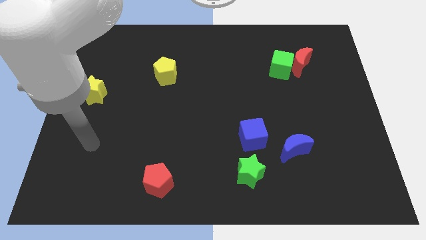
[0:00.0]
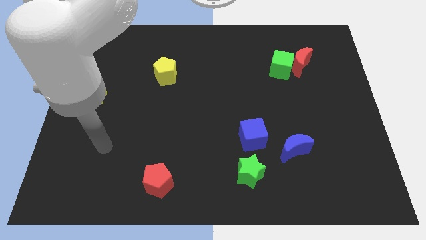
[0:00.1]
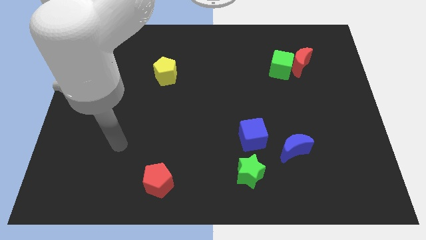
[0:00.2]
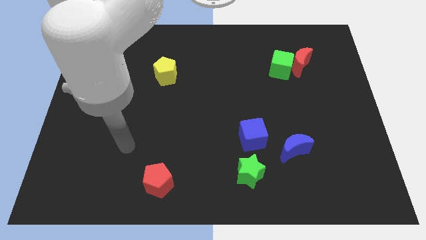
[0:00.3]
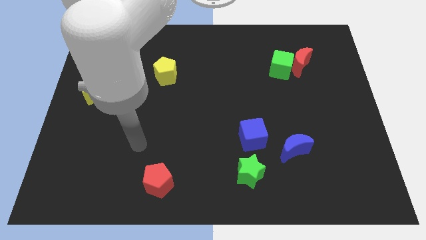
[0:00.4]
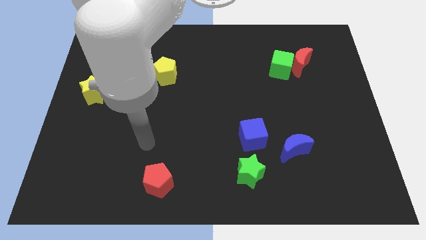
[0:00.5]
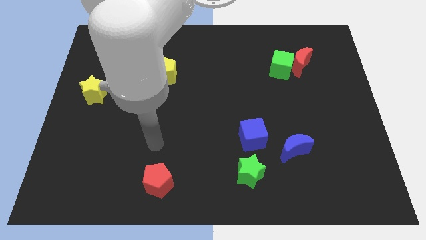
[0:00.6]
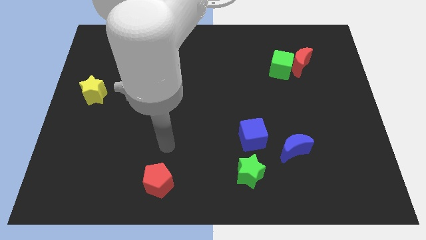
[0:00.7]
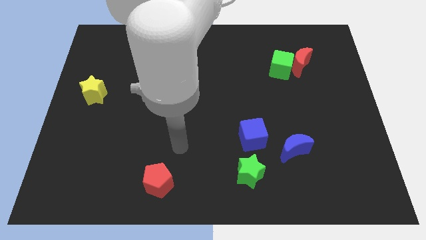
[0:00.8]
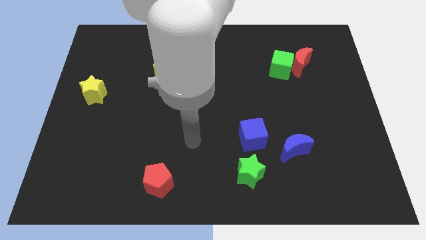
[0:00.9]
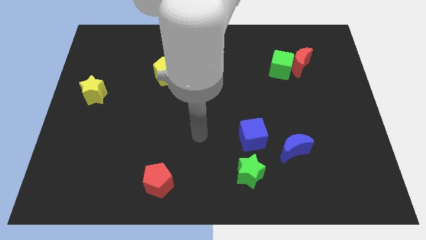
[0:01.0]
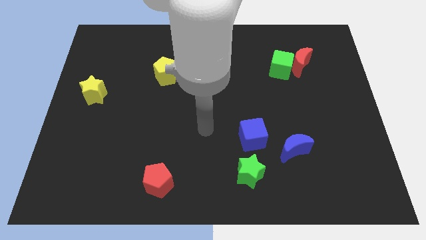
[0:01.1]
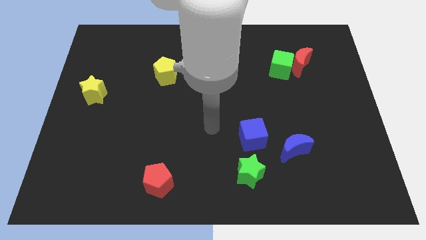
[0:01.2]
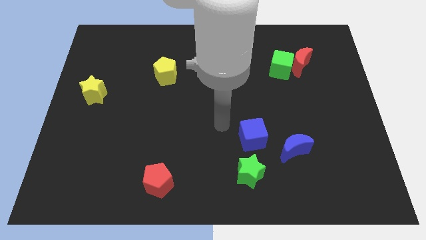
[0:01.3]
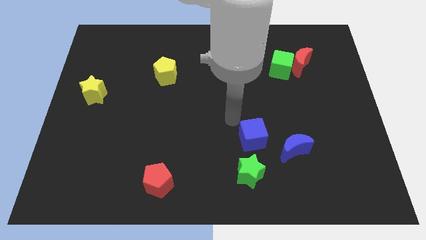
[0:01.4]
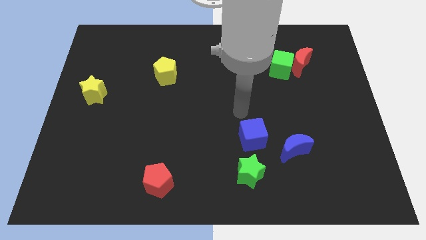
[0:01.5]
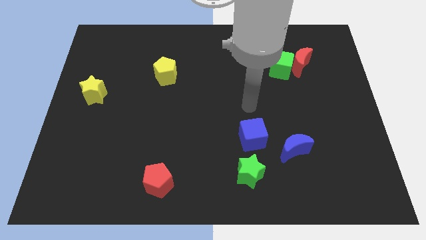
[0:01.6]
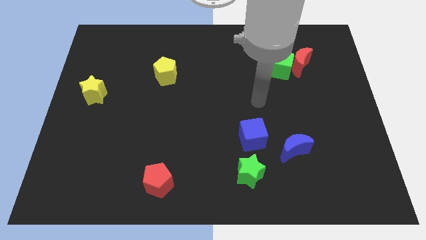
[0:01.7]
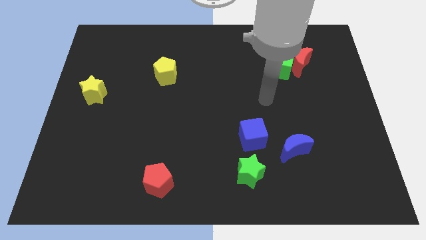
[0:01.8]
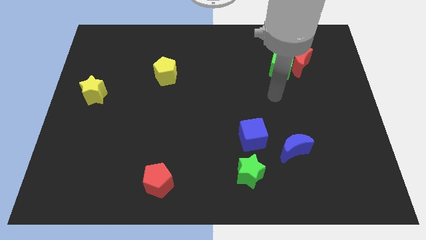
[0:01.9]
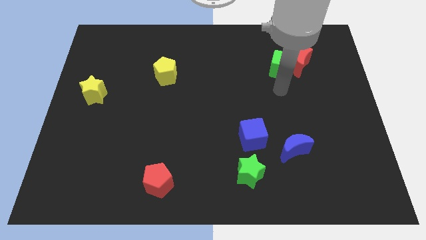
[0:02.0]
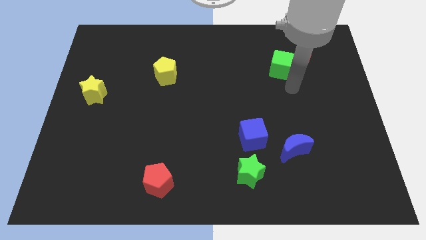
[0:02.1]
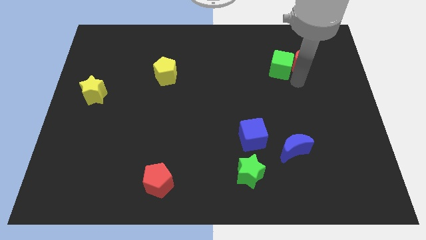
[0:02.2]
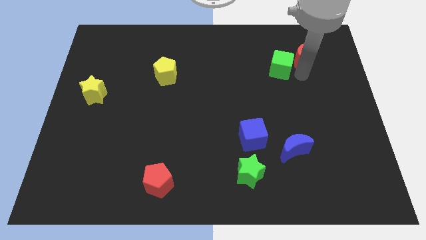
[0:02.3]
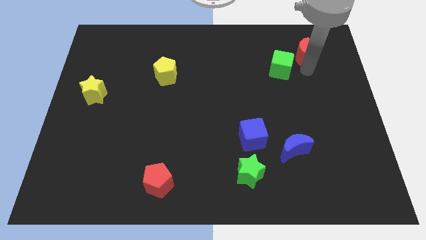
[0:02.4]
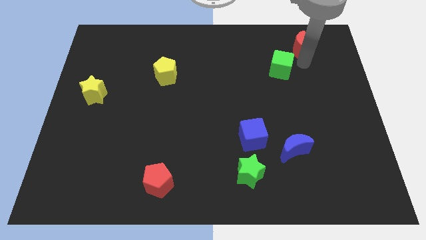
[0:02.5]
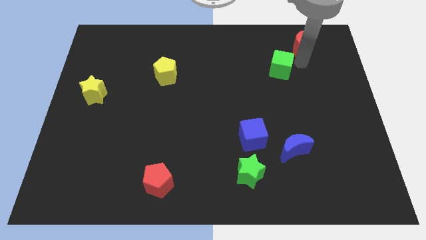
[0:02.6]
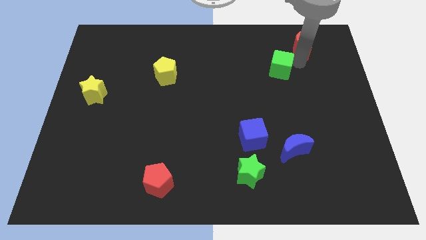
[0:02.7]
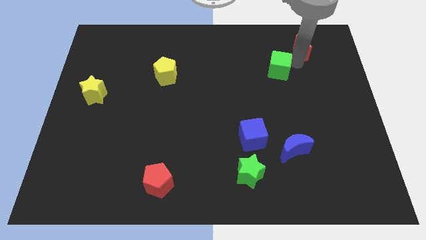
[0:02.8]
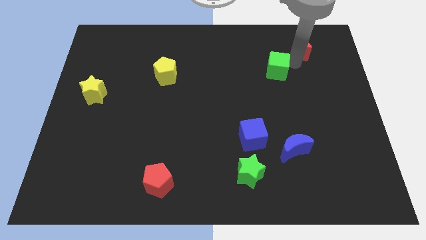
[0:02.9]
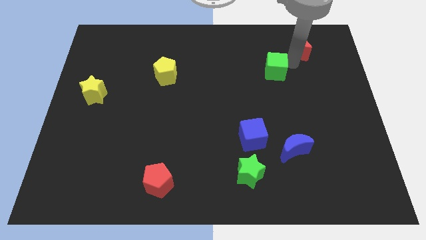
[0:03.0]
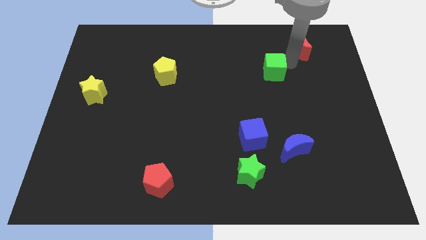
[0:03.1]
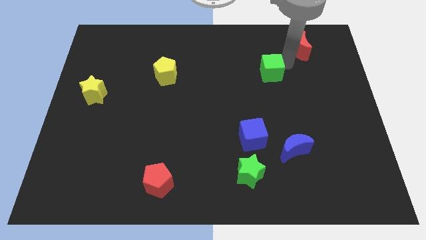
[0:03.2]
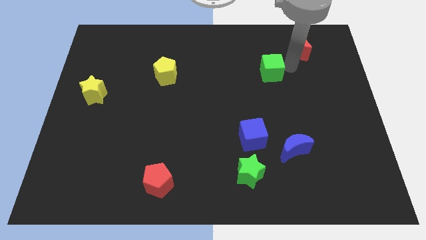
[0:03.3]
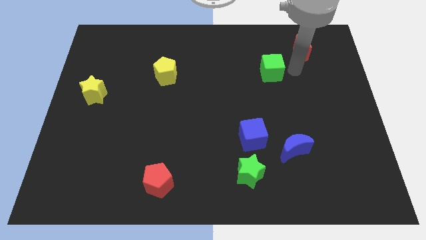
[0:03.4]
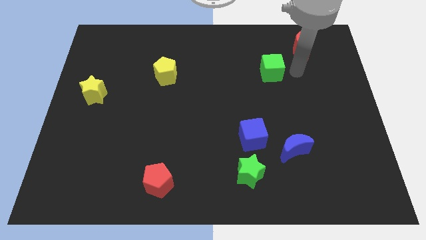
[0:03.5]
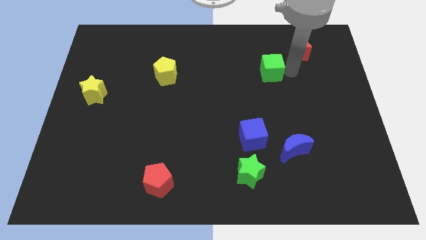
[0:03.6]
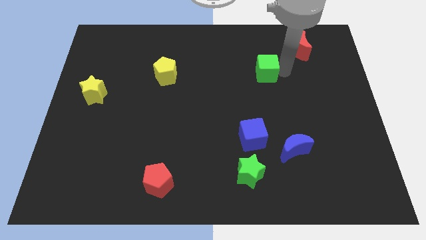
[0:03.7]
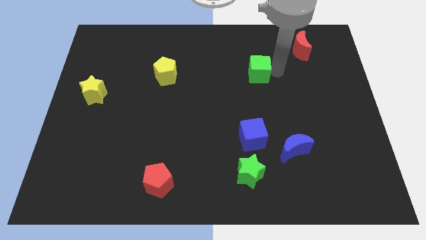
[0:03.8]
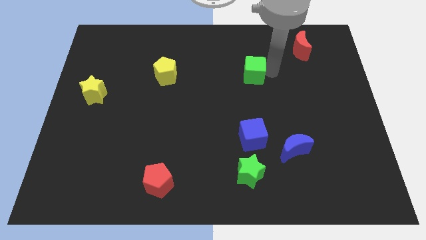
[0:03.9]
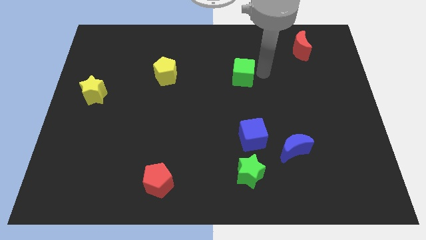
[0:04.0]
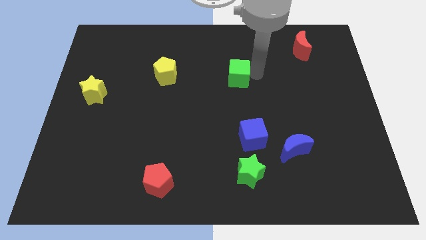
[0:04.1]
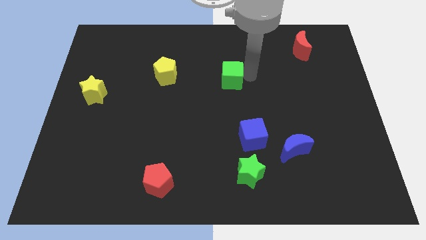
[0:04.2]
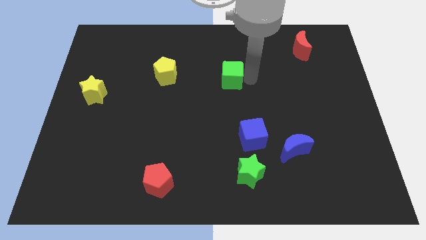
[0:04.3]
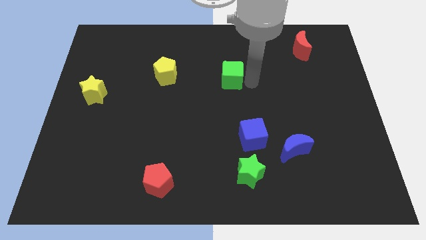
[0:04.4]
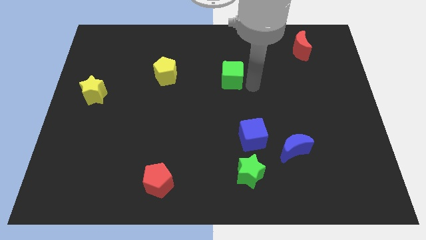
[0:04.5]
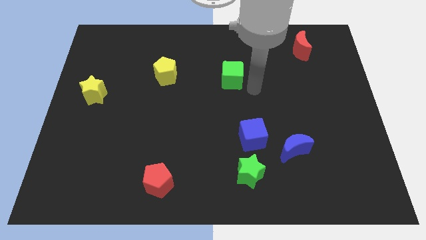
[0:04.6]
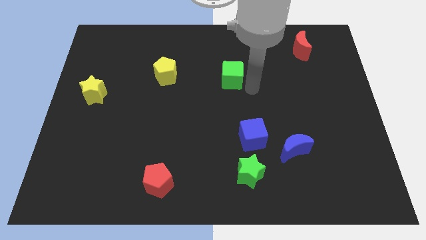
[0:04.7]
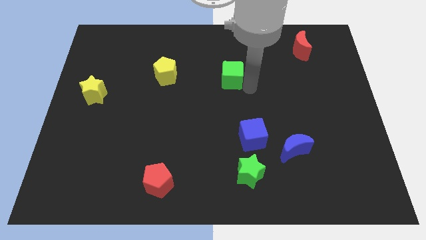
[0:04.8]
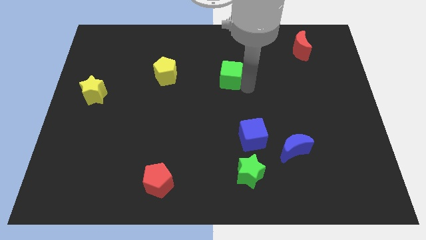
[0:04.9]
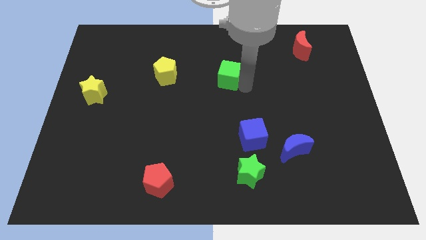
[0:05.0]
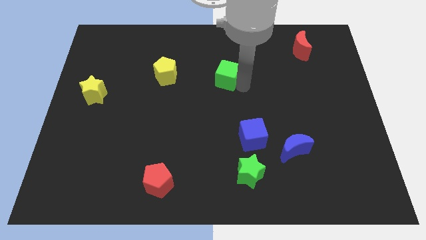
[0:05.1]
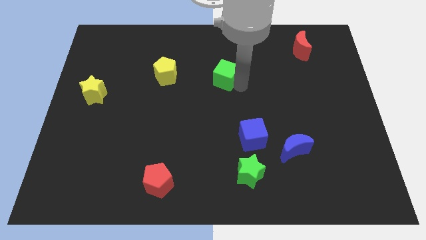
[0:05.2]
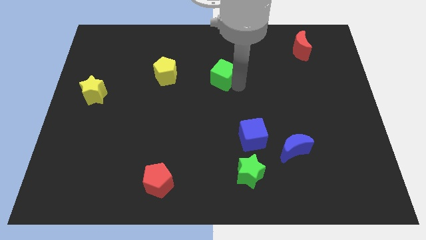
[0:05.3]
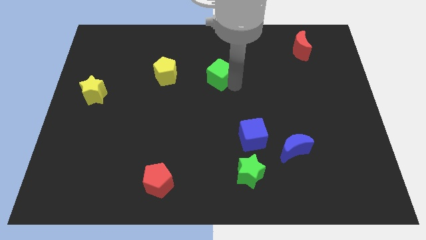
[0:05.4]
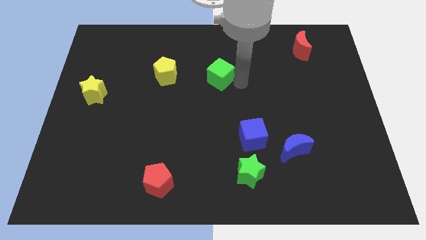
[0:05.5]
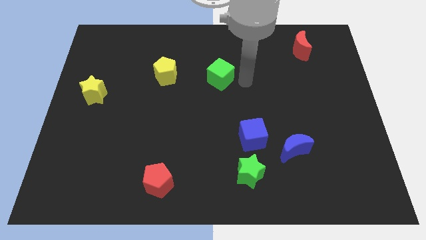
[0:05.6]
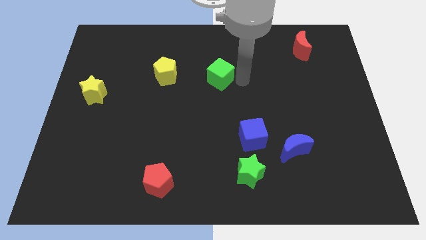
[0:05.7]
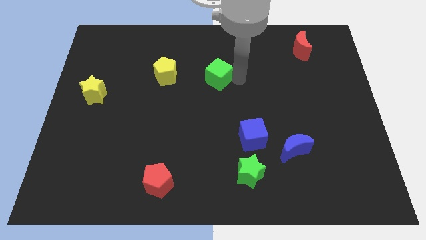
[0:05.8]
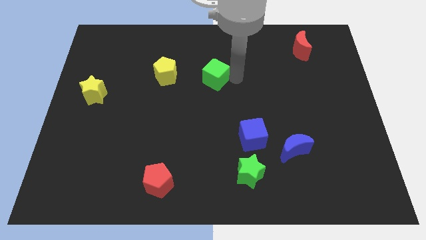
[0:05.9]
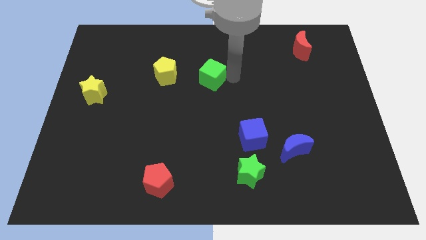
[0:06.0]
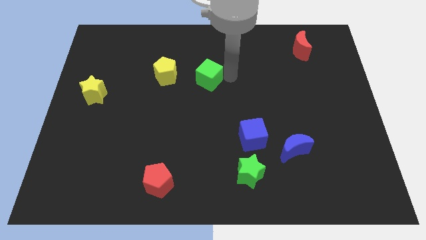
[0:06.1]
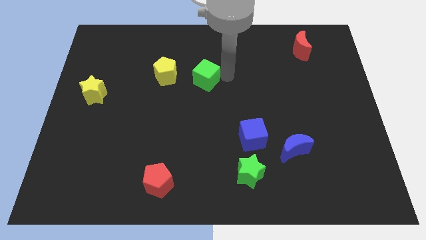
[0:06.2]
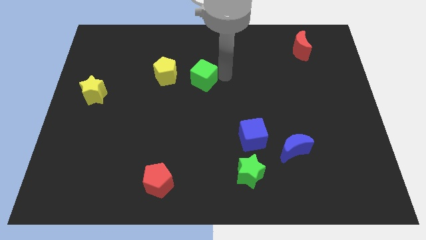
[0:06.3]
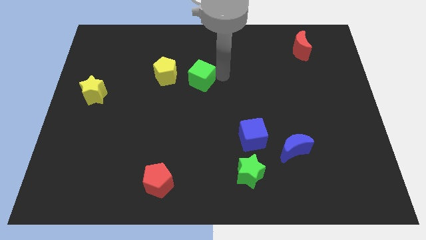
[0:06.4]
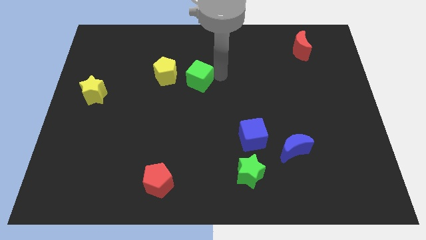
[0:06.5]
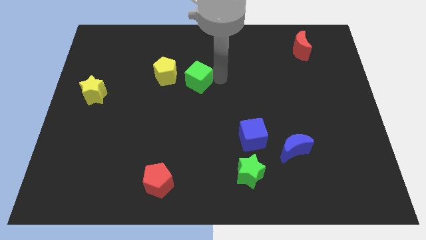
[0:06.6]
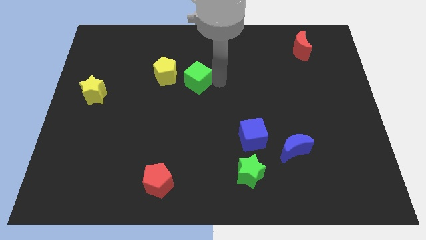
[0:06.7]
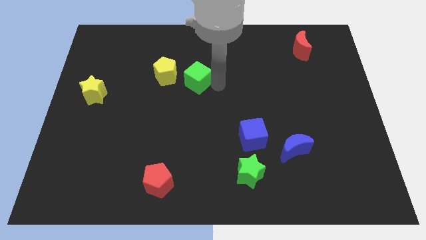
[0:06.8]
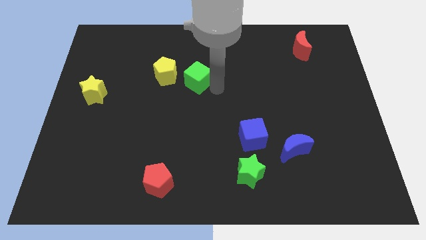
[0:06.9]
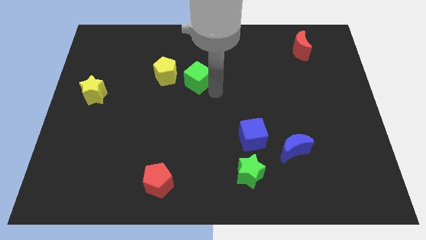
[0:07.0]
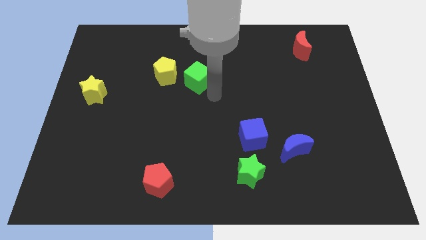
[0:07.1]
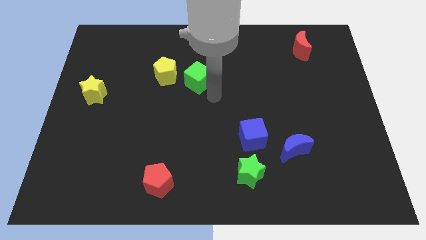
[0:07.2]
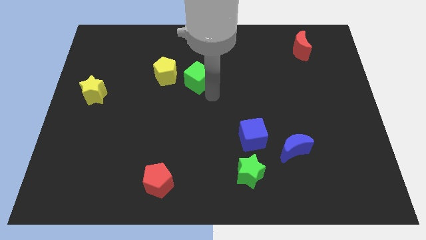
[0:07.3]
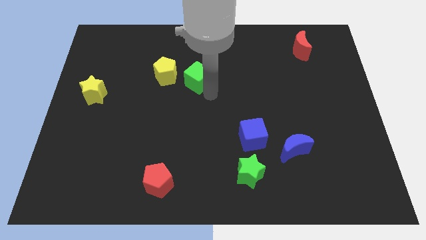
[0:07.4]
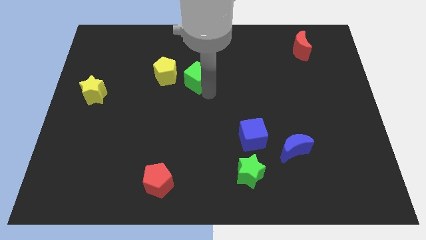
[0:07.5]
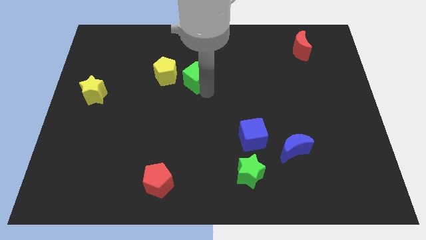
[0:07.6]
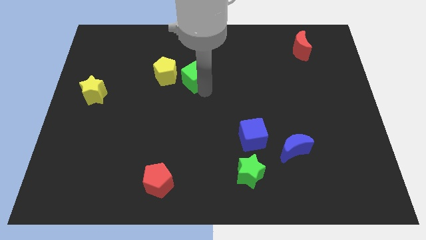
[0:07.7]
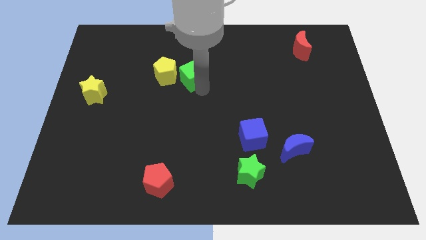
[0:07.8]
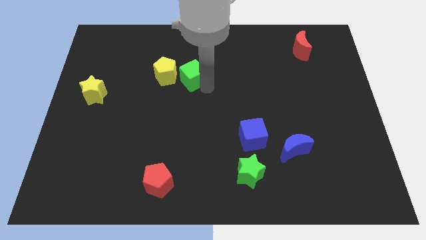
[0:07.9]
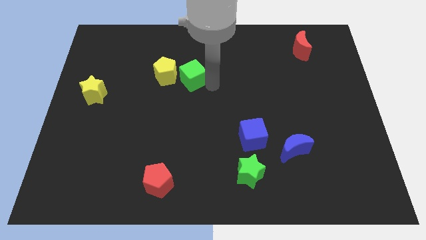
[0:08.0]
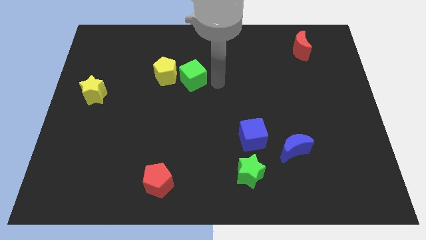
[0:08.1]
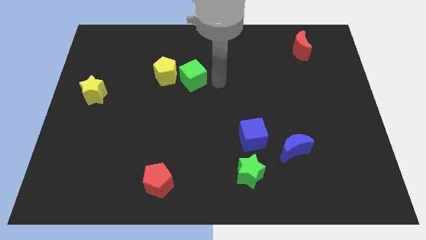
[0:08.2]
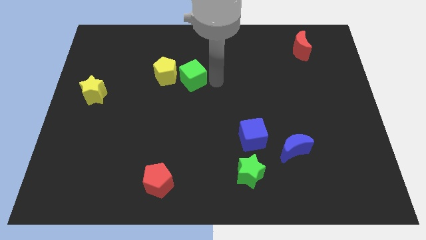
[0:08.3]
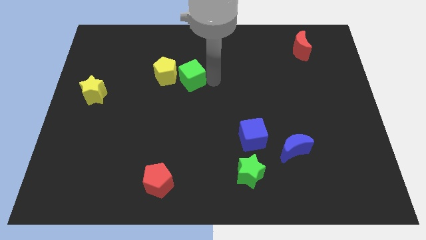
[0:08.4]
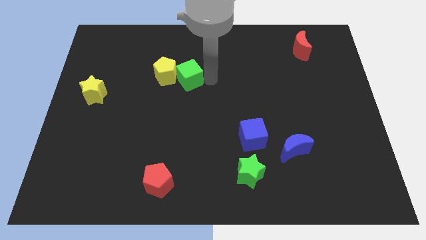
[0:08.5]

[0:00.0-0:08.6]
slide the green cube to the yellow pentagon
